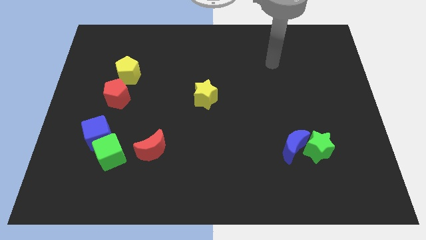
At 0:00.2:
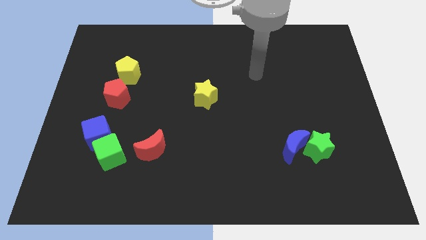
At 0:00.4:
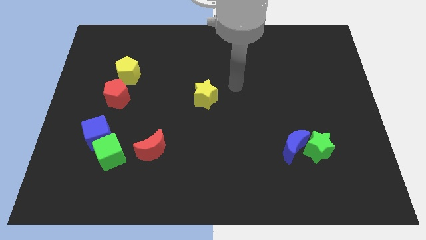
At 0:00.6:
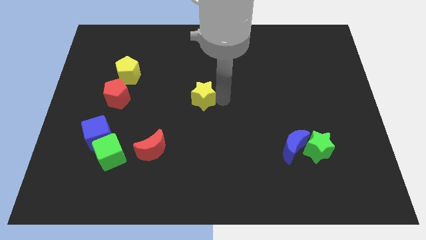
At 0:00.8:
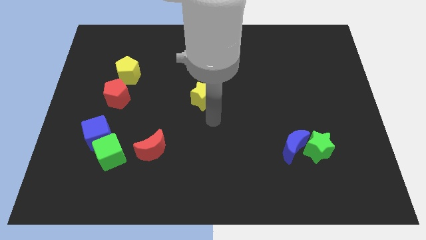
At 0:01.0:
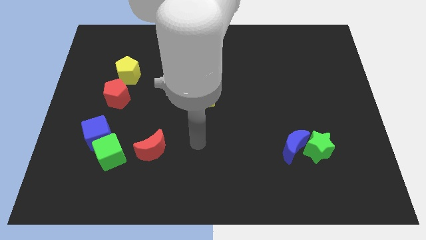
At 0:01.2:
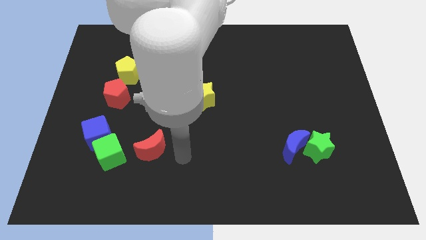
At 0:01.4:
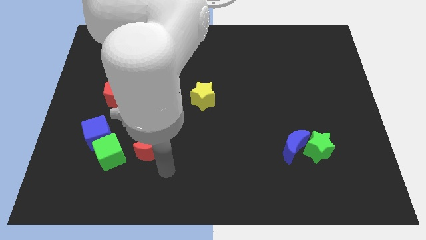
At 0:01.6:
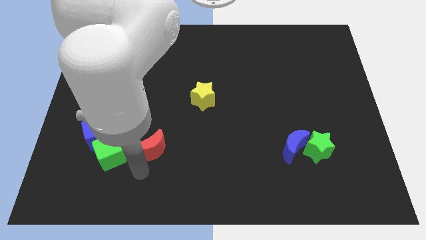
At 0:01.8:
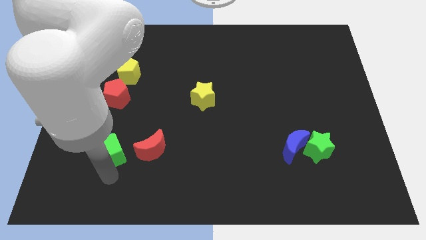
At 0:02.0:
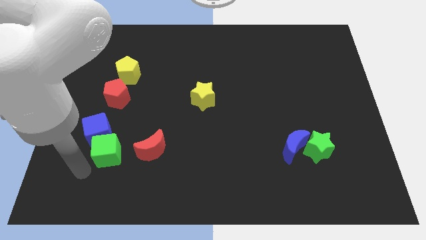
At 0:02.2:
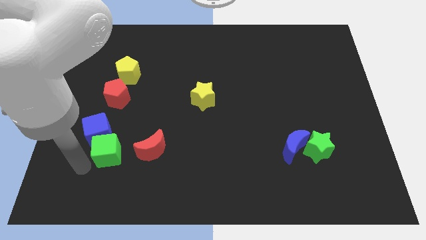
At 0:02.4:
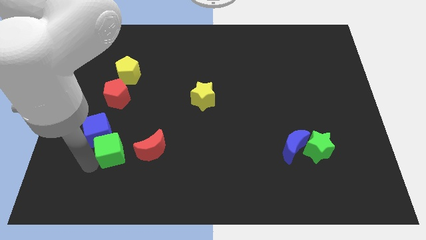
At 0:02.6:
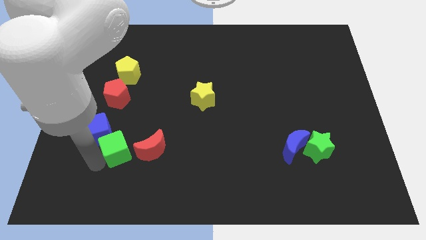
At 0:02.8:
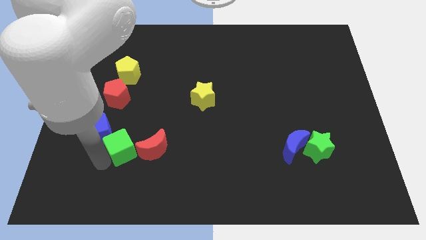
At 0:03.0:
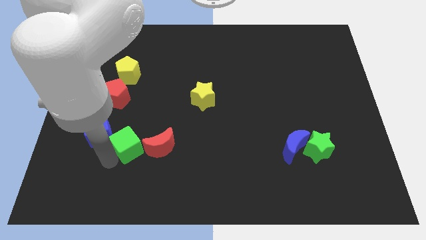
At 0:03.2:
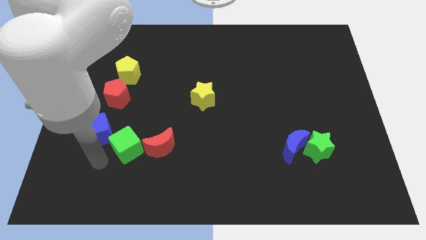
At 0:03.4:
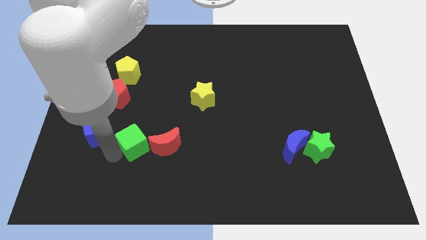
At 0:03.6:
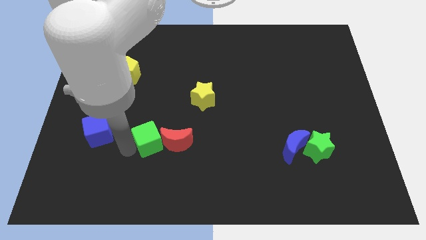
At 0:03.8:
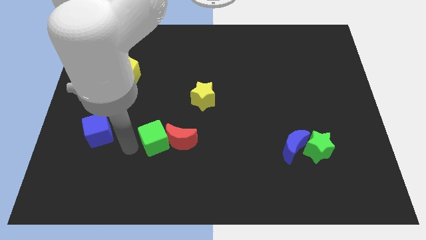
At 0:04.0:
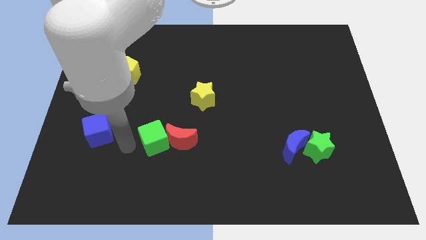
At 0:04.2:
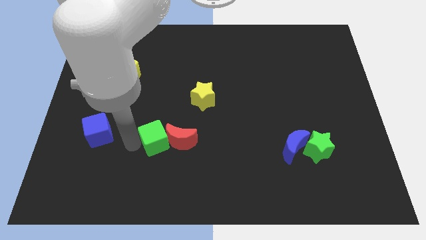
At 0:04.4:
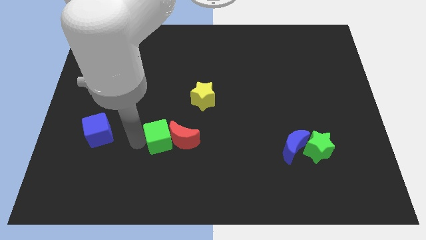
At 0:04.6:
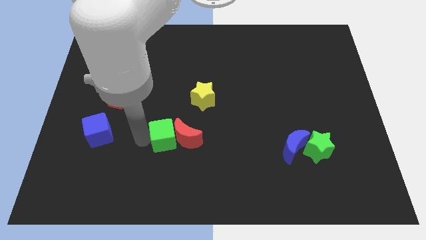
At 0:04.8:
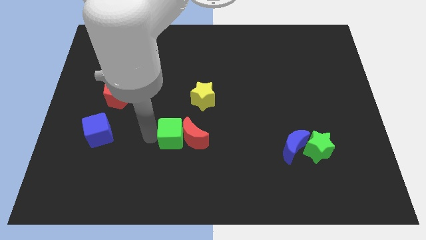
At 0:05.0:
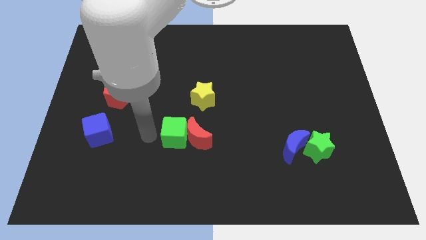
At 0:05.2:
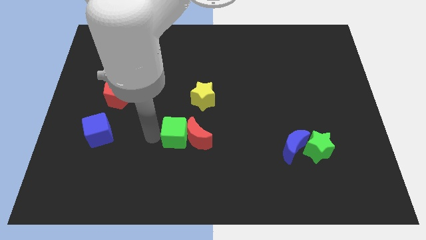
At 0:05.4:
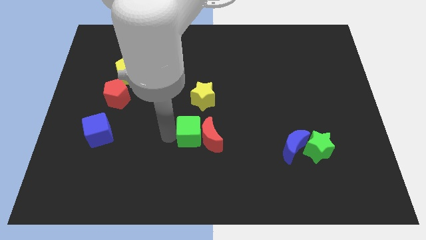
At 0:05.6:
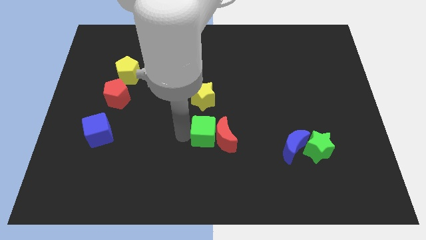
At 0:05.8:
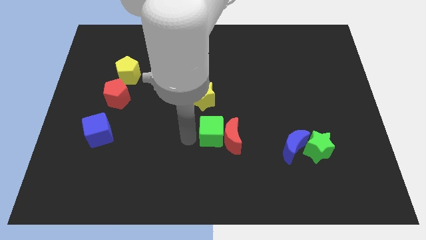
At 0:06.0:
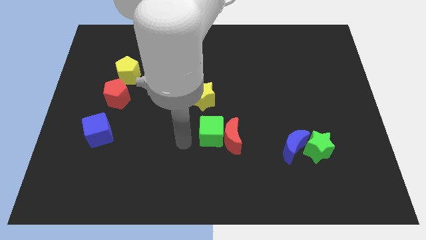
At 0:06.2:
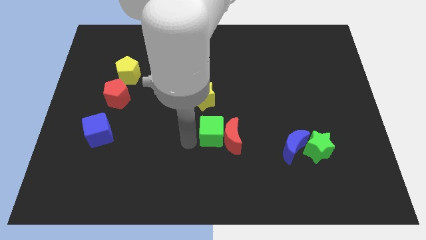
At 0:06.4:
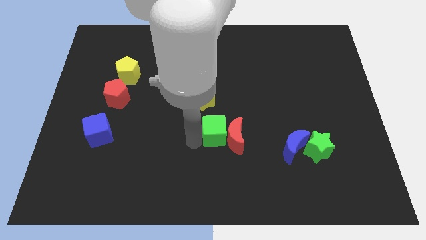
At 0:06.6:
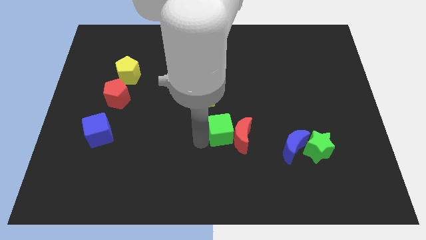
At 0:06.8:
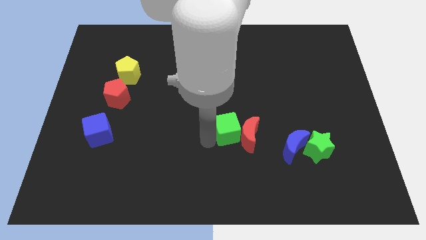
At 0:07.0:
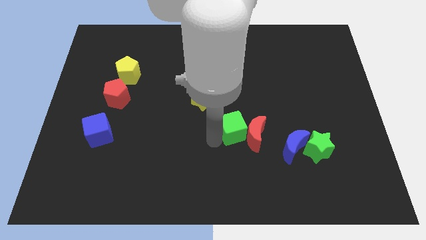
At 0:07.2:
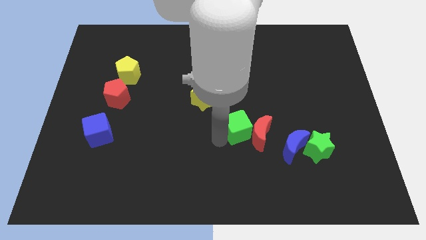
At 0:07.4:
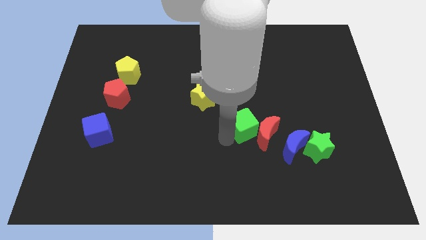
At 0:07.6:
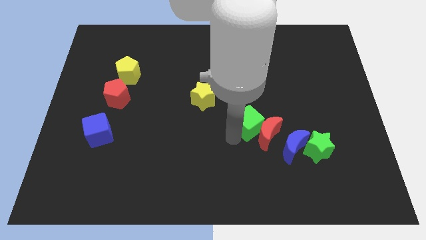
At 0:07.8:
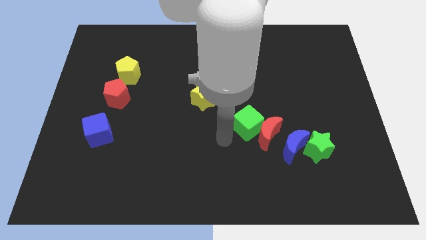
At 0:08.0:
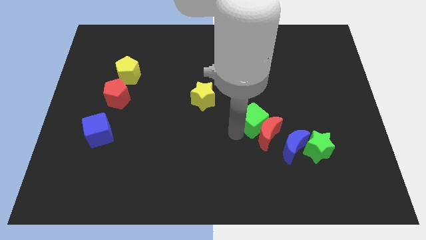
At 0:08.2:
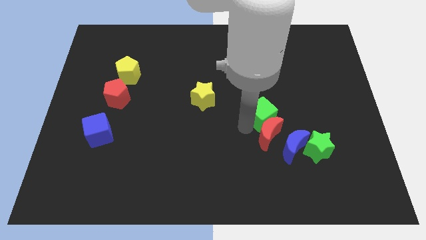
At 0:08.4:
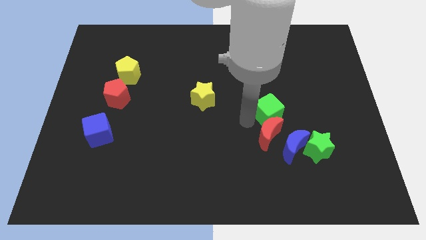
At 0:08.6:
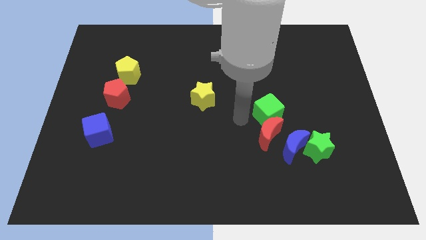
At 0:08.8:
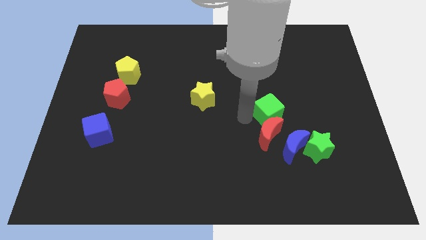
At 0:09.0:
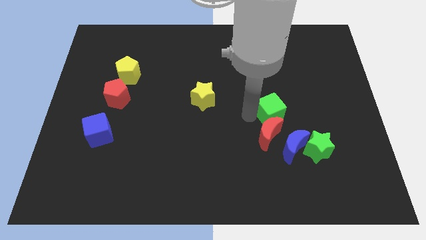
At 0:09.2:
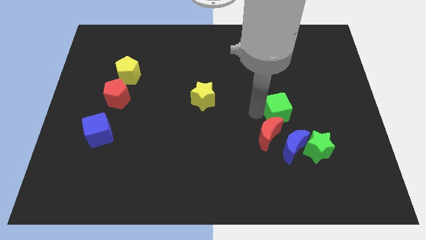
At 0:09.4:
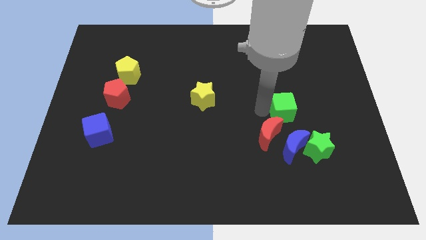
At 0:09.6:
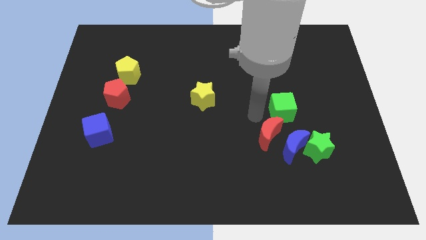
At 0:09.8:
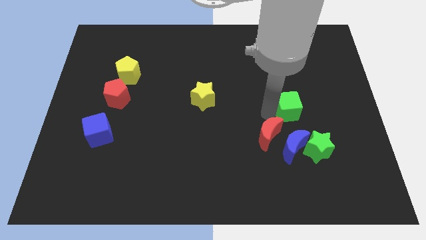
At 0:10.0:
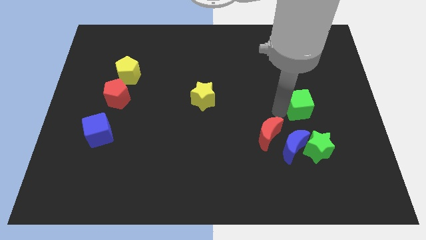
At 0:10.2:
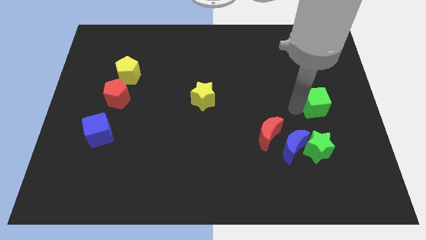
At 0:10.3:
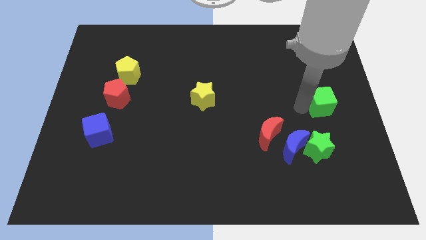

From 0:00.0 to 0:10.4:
push the green cube to the center right
